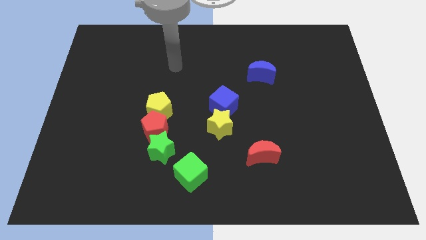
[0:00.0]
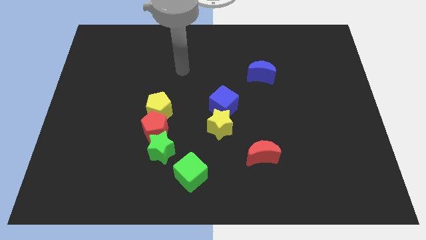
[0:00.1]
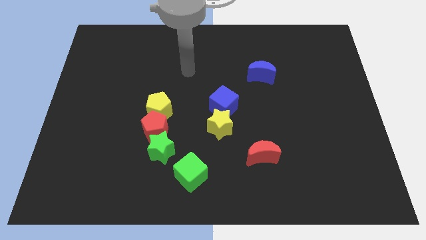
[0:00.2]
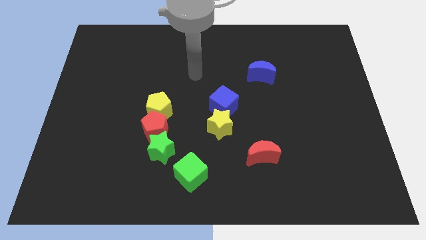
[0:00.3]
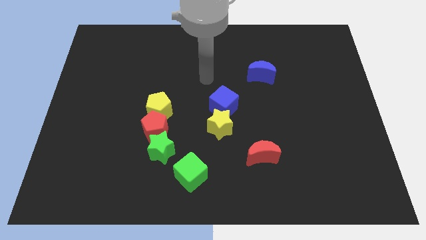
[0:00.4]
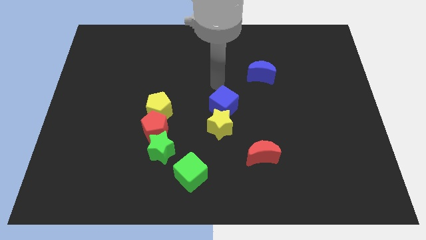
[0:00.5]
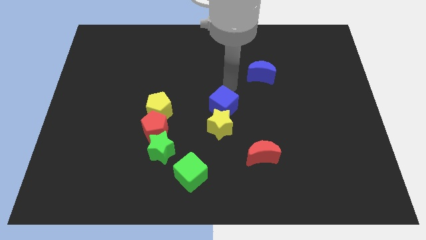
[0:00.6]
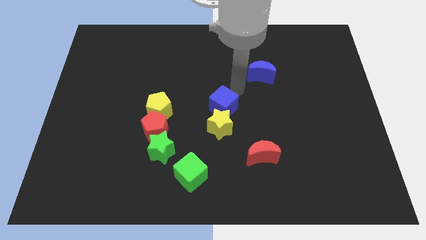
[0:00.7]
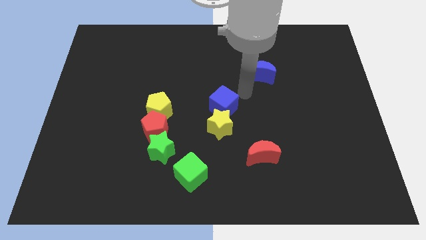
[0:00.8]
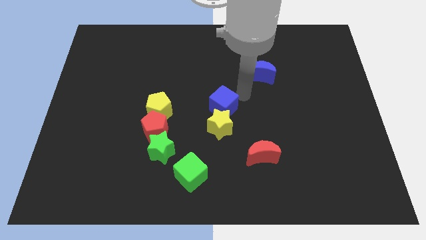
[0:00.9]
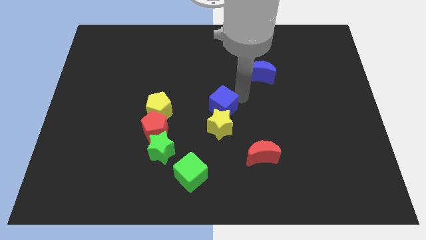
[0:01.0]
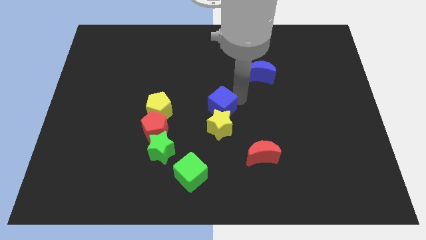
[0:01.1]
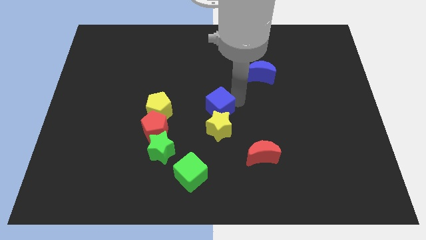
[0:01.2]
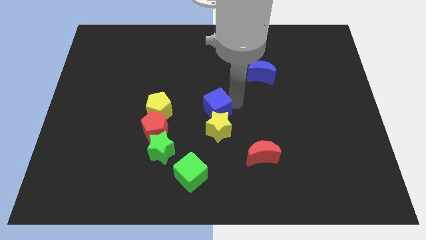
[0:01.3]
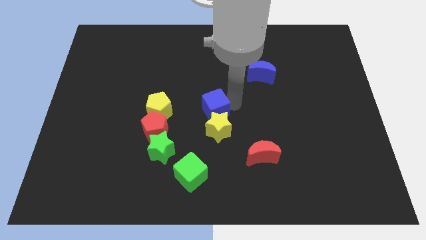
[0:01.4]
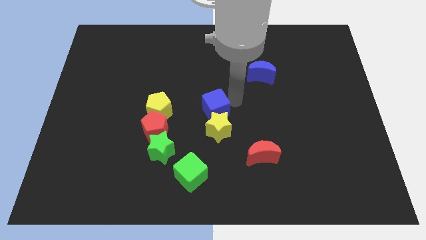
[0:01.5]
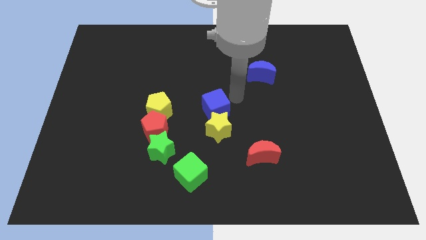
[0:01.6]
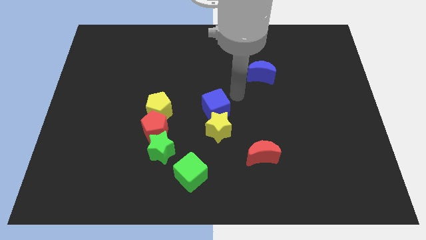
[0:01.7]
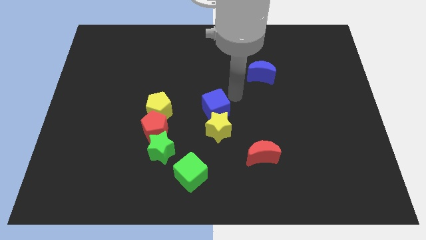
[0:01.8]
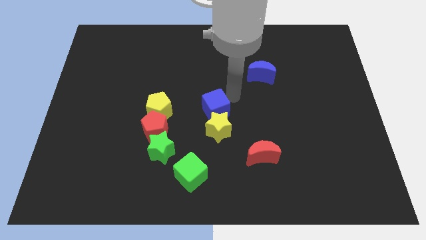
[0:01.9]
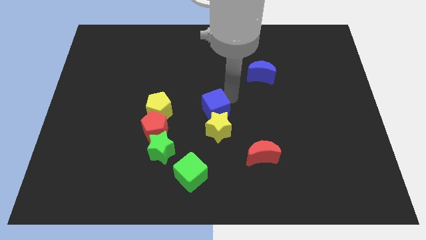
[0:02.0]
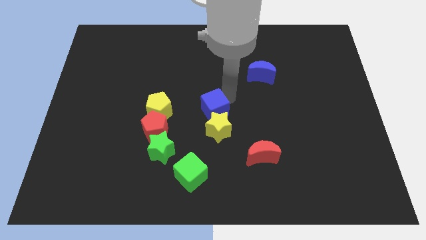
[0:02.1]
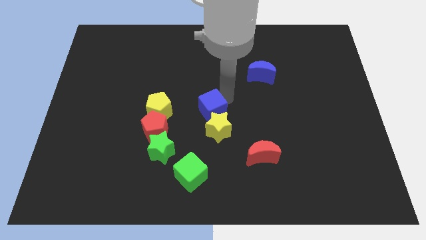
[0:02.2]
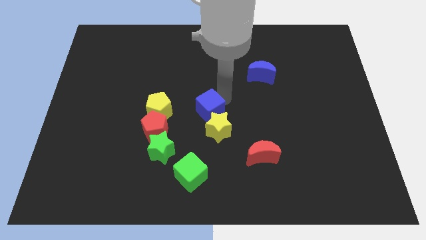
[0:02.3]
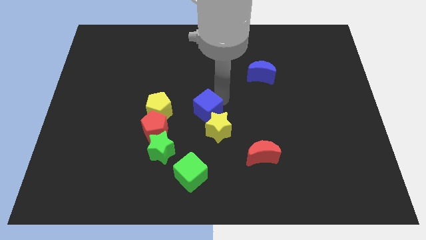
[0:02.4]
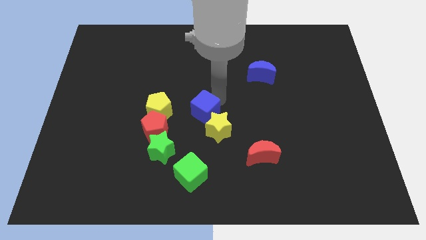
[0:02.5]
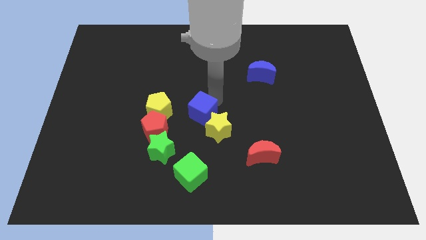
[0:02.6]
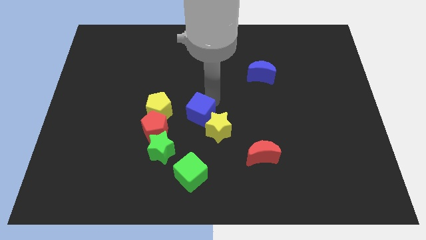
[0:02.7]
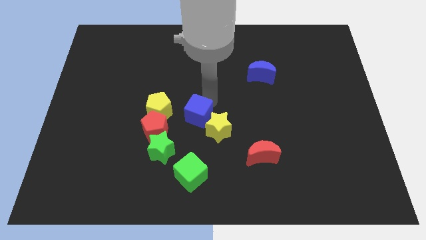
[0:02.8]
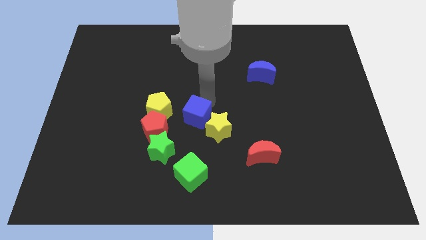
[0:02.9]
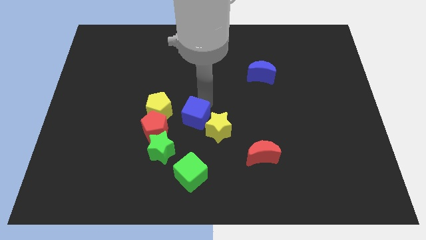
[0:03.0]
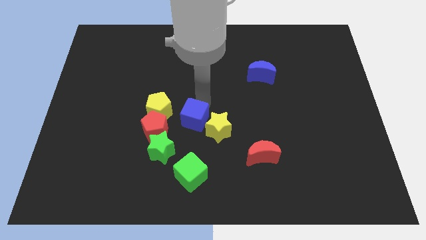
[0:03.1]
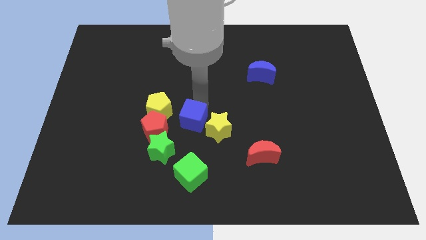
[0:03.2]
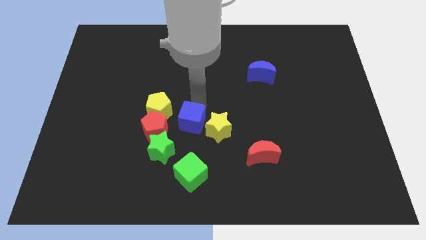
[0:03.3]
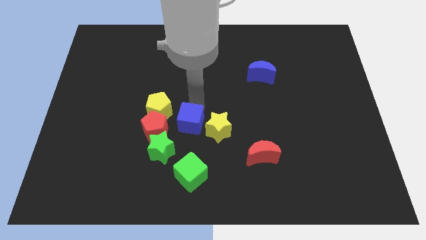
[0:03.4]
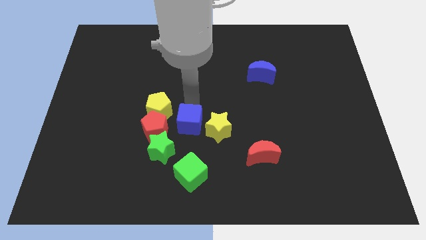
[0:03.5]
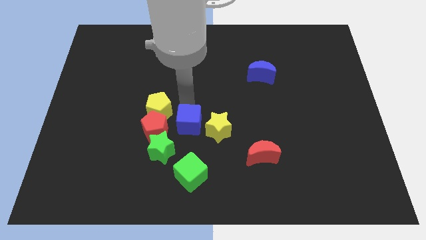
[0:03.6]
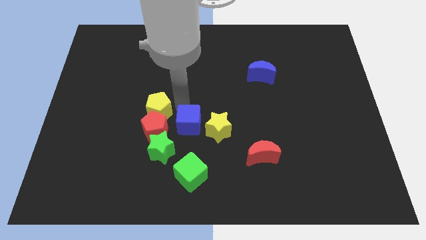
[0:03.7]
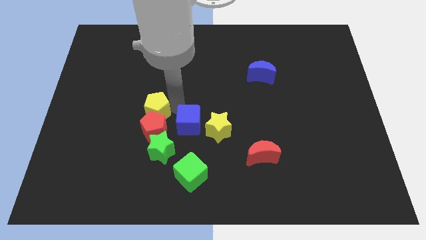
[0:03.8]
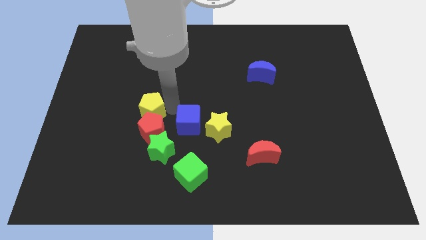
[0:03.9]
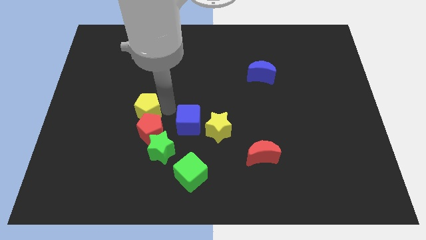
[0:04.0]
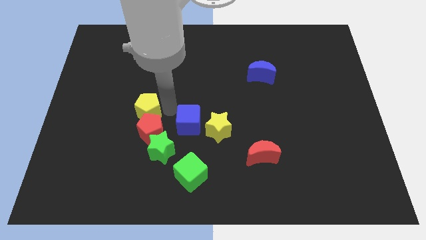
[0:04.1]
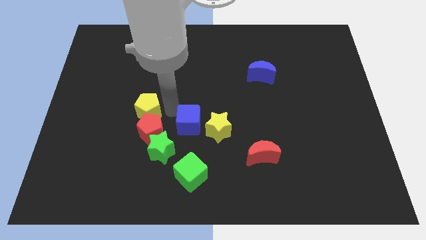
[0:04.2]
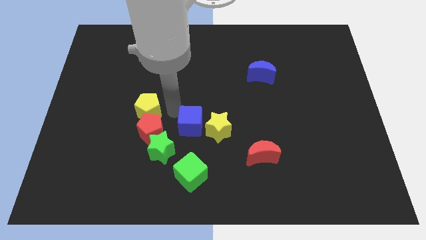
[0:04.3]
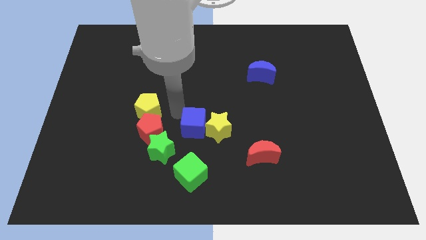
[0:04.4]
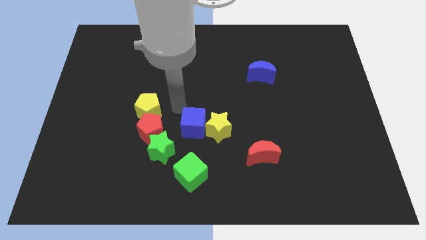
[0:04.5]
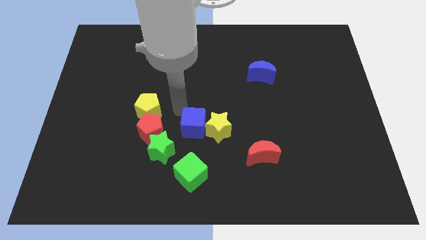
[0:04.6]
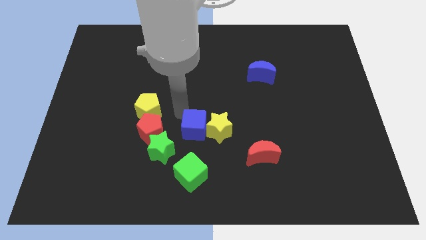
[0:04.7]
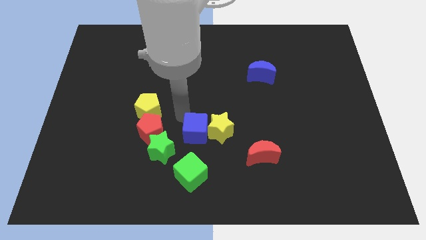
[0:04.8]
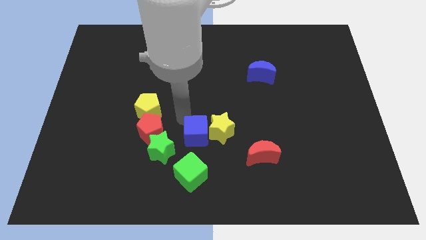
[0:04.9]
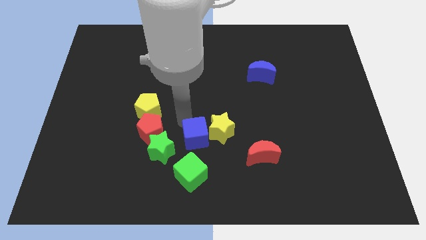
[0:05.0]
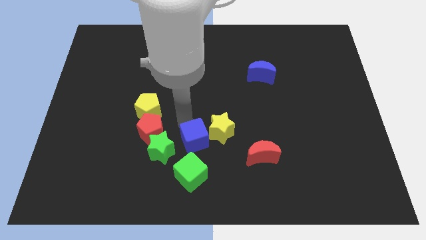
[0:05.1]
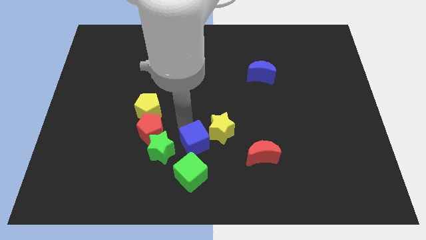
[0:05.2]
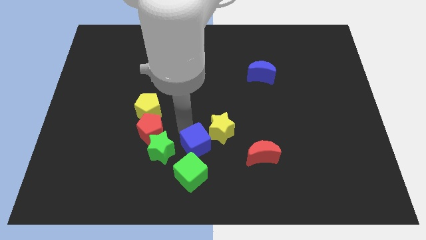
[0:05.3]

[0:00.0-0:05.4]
put the blue cube to the top right of the green cube

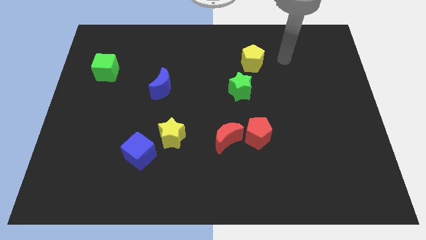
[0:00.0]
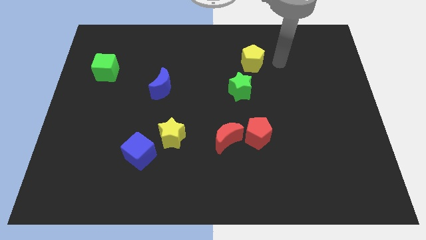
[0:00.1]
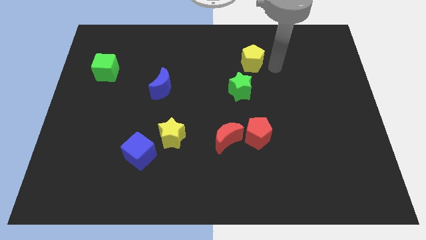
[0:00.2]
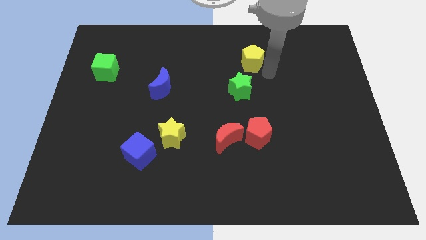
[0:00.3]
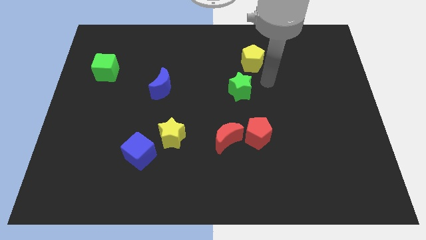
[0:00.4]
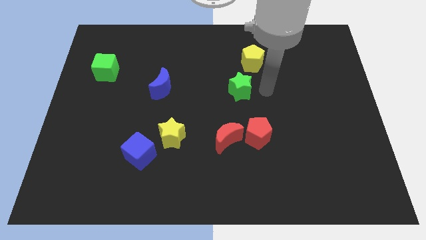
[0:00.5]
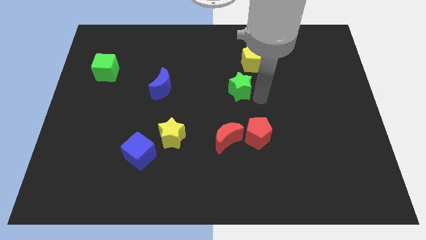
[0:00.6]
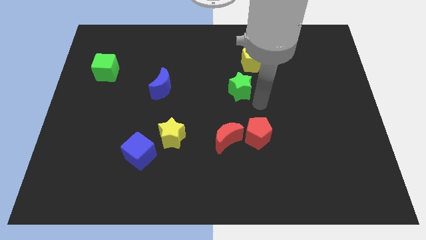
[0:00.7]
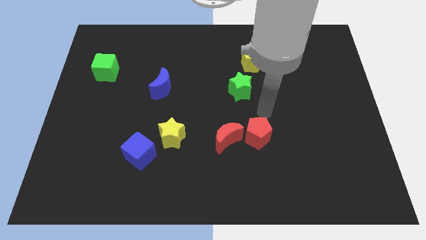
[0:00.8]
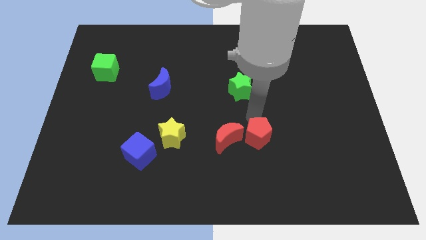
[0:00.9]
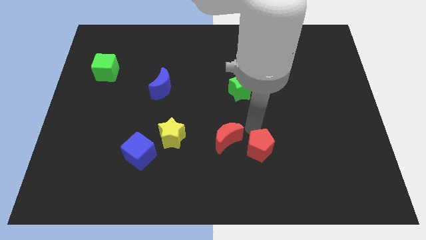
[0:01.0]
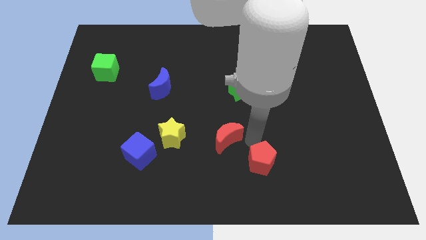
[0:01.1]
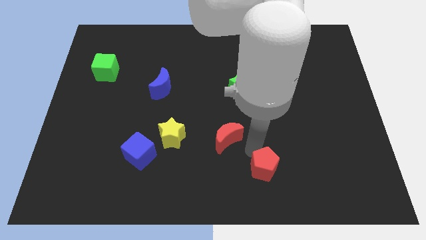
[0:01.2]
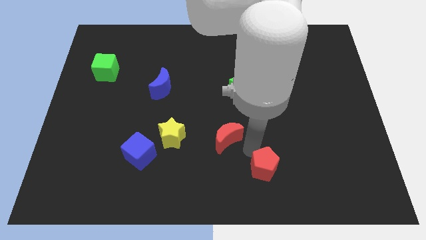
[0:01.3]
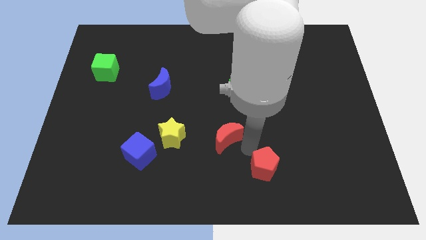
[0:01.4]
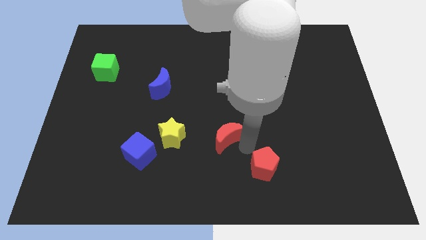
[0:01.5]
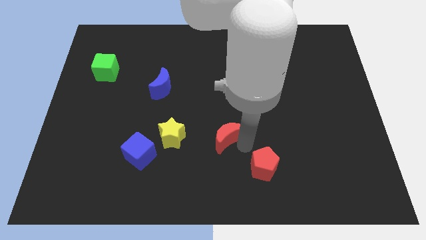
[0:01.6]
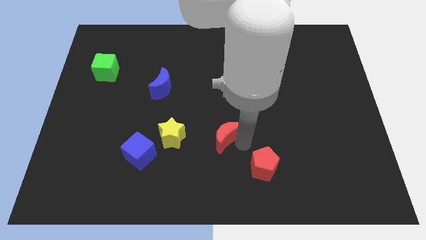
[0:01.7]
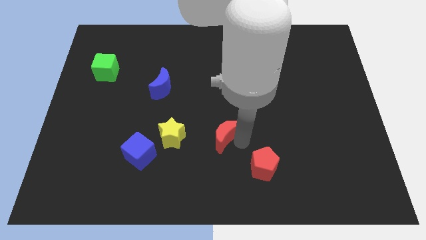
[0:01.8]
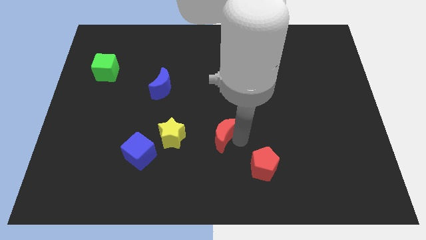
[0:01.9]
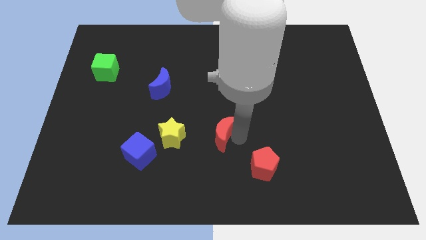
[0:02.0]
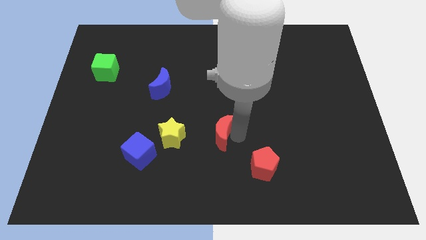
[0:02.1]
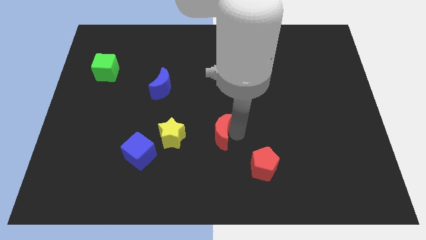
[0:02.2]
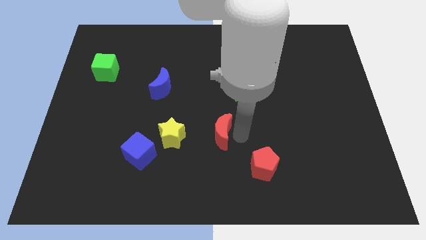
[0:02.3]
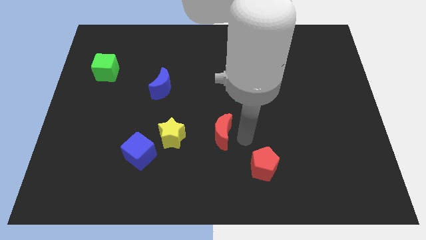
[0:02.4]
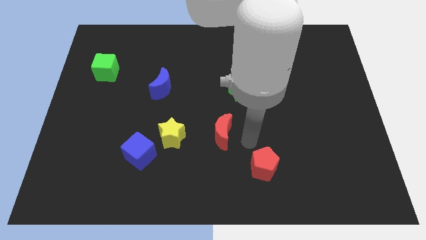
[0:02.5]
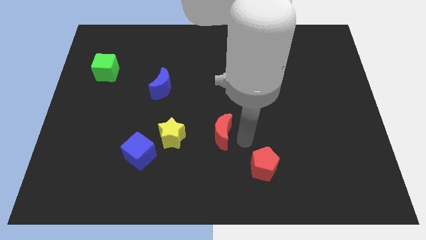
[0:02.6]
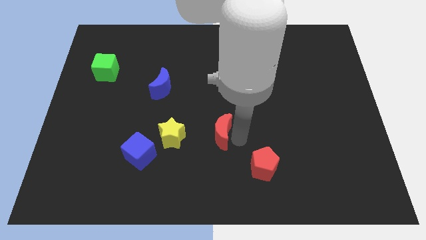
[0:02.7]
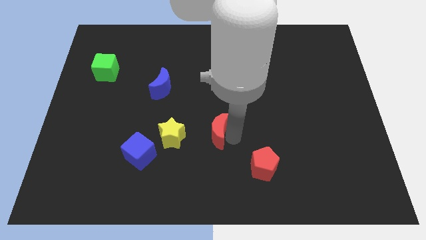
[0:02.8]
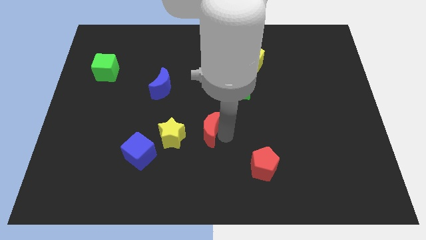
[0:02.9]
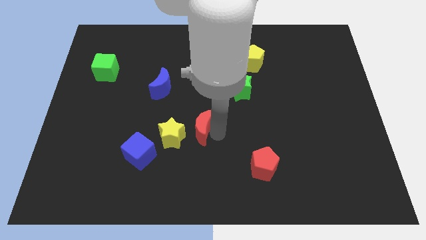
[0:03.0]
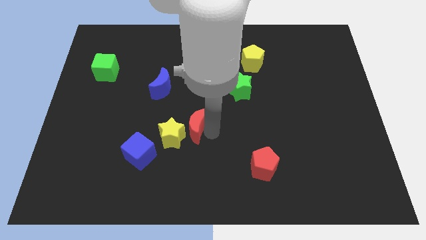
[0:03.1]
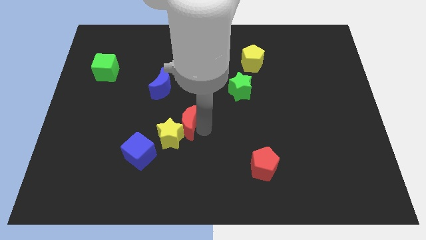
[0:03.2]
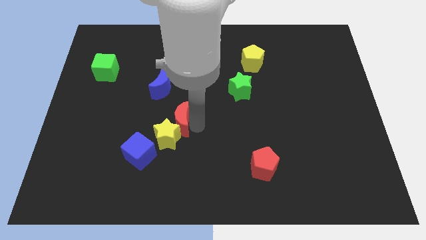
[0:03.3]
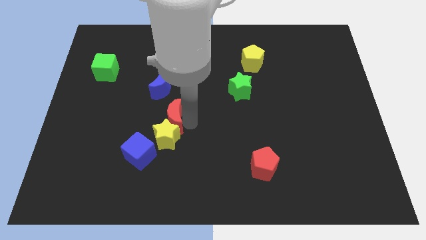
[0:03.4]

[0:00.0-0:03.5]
move the red moon to the bottom side of the blue moon
